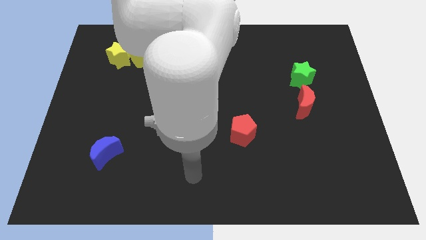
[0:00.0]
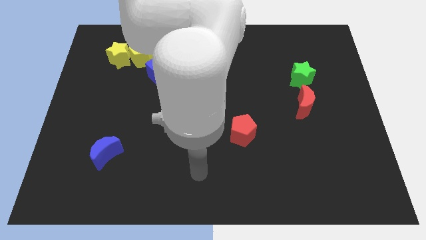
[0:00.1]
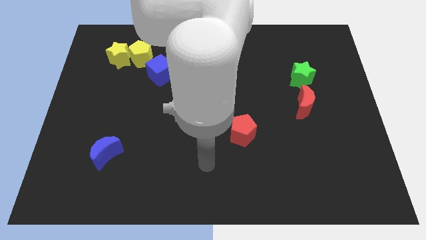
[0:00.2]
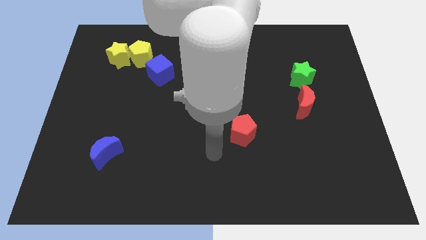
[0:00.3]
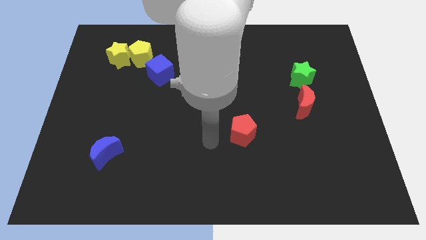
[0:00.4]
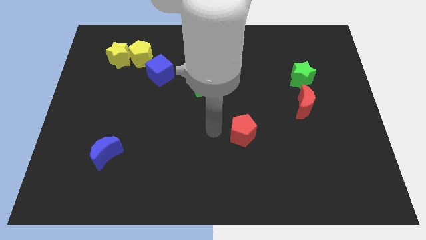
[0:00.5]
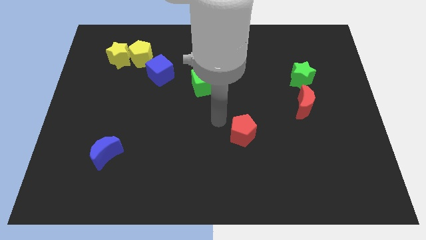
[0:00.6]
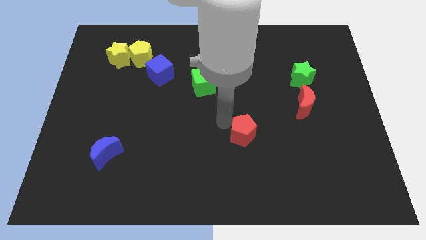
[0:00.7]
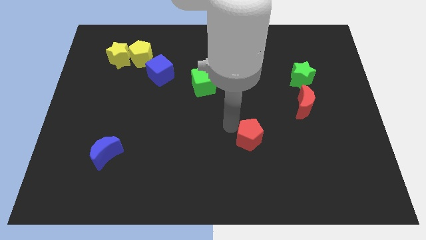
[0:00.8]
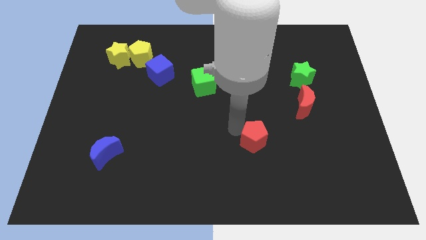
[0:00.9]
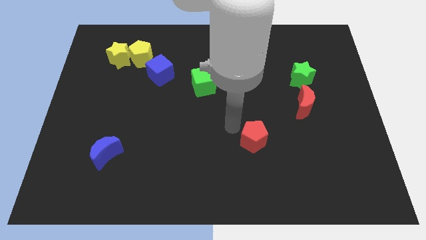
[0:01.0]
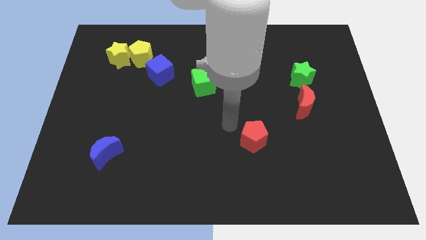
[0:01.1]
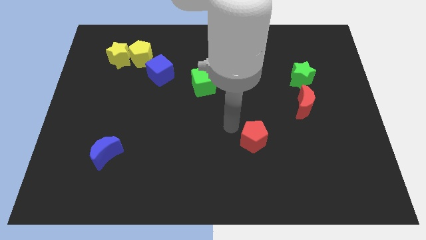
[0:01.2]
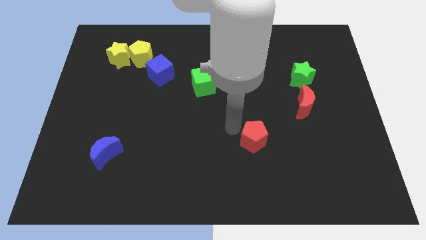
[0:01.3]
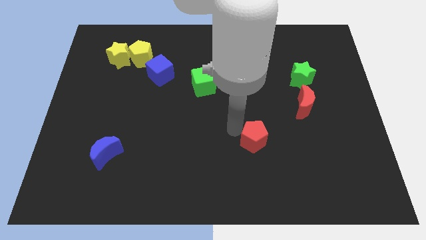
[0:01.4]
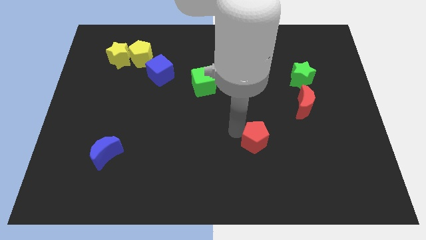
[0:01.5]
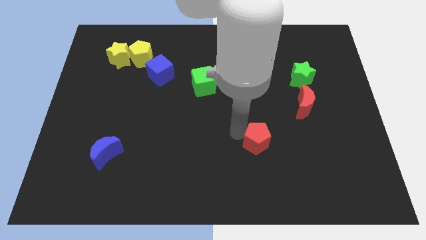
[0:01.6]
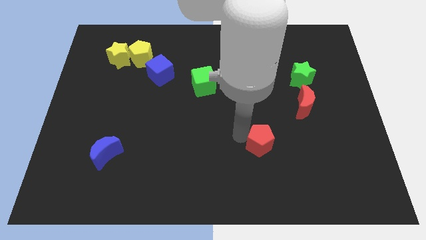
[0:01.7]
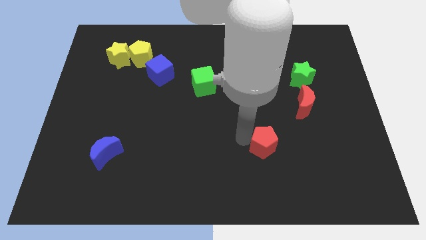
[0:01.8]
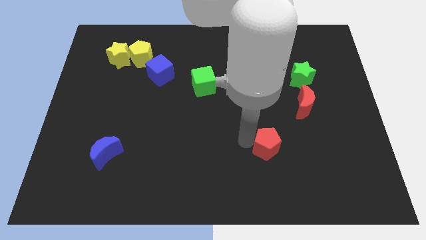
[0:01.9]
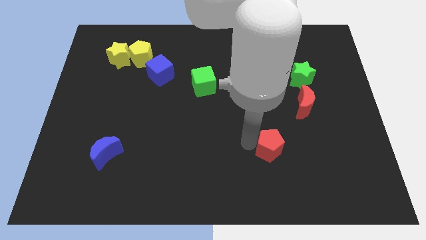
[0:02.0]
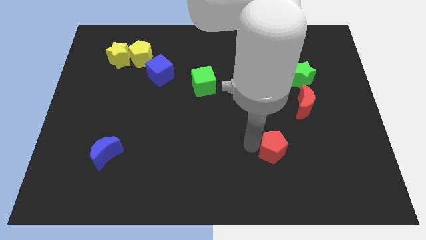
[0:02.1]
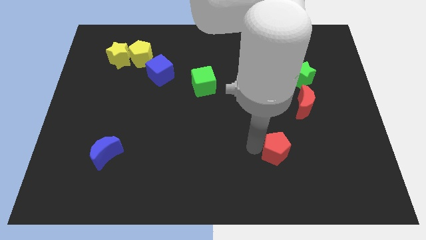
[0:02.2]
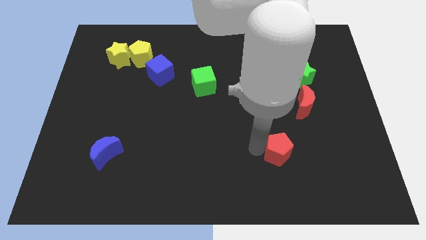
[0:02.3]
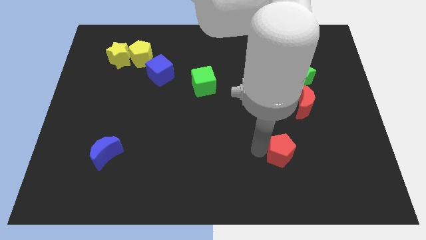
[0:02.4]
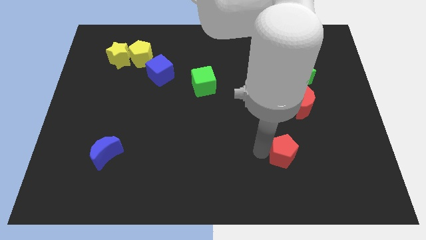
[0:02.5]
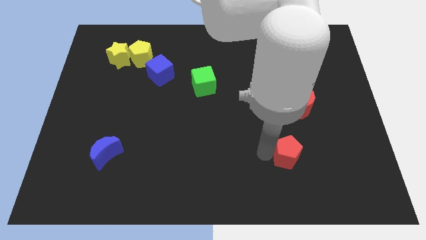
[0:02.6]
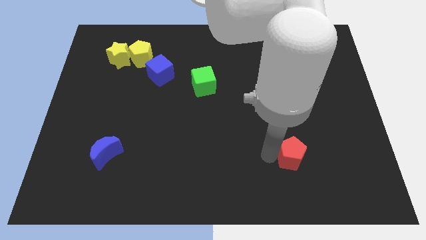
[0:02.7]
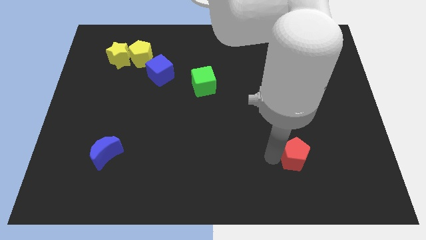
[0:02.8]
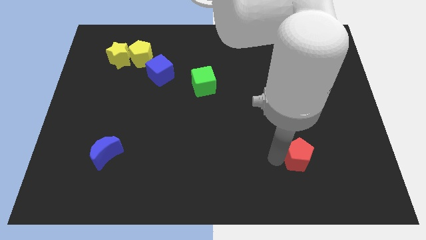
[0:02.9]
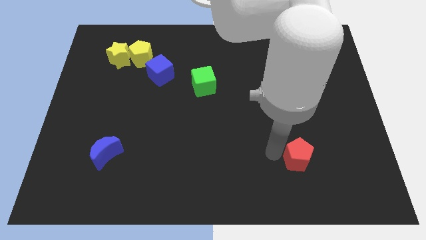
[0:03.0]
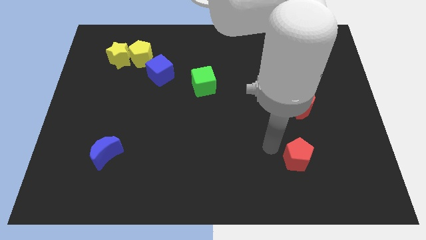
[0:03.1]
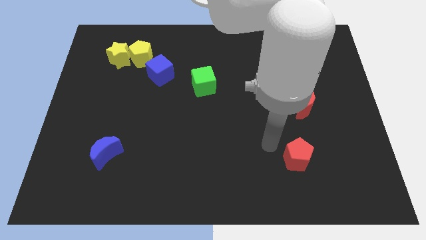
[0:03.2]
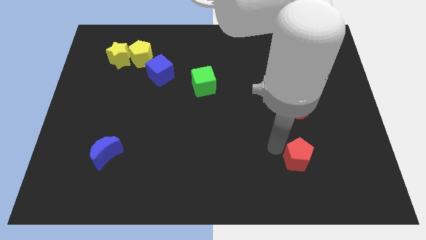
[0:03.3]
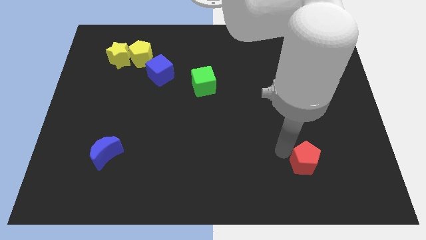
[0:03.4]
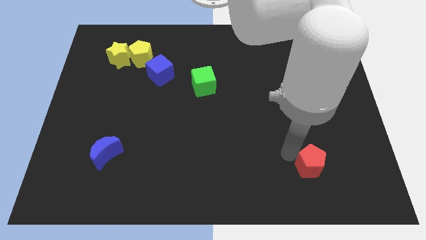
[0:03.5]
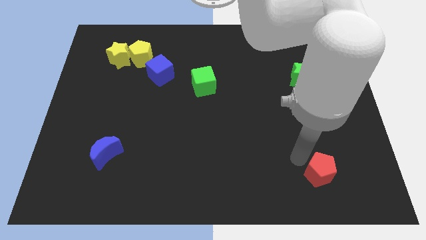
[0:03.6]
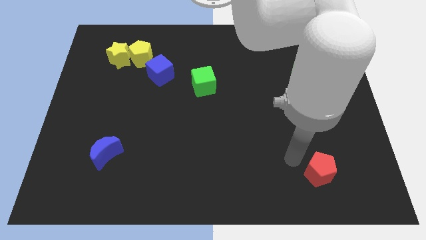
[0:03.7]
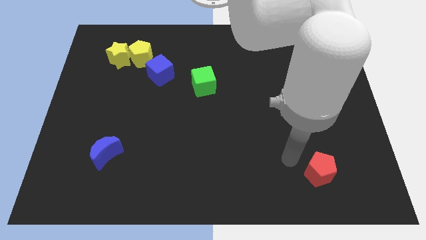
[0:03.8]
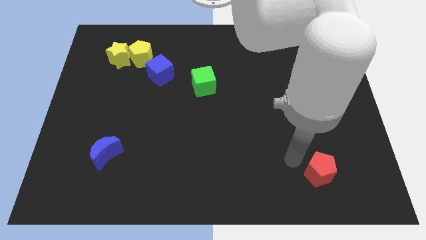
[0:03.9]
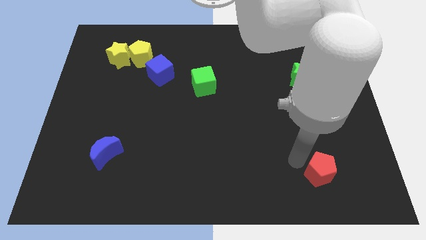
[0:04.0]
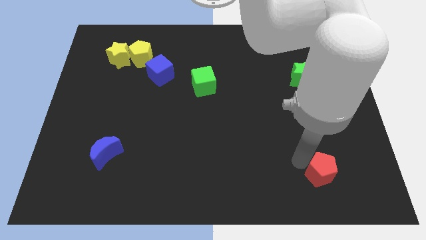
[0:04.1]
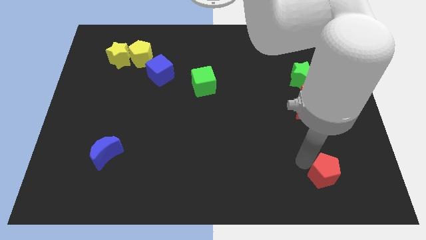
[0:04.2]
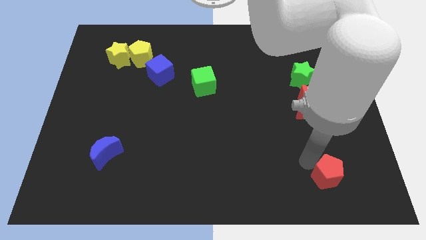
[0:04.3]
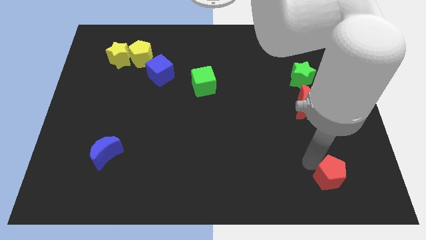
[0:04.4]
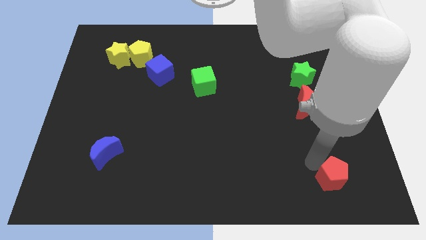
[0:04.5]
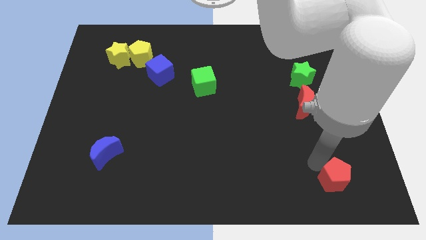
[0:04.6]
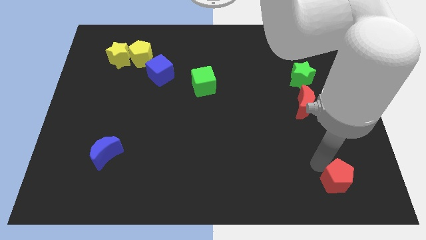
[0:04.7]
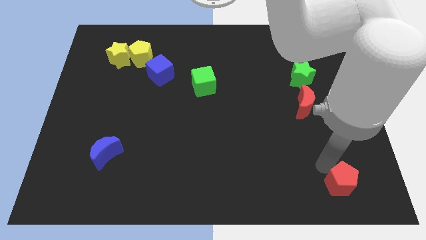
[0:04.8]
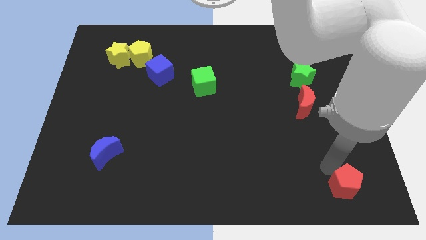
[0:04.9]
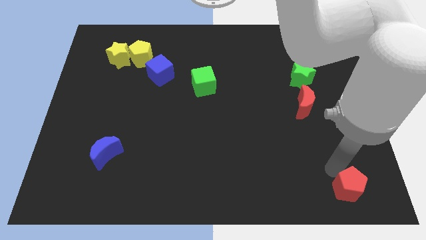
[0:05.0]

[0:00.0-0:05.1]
slide the red pentagon to the bottom right

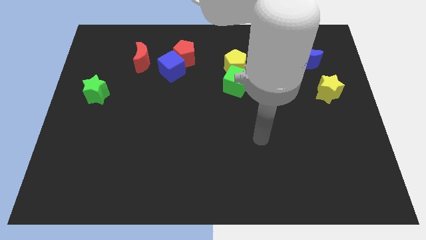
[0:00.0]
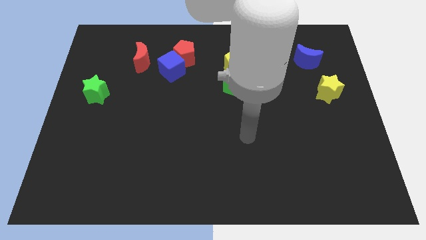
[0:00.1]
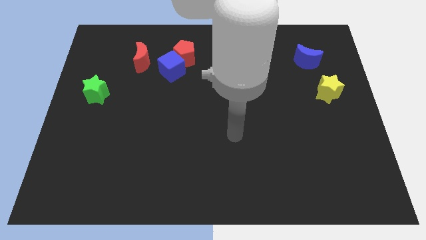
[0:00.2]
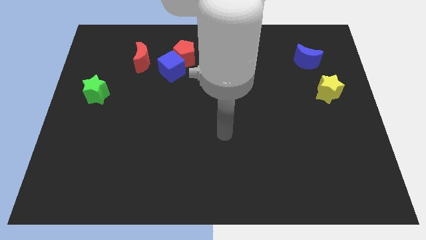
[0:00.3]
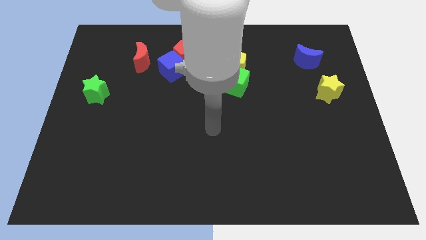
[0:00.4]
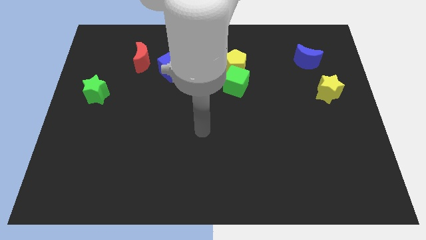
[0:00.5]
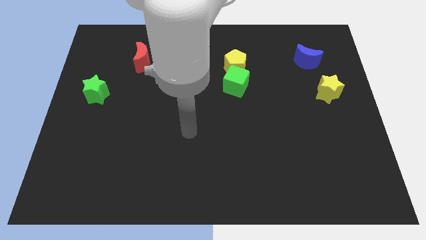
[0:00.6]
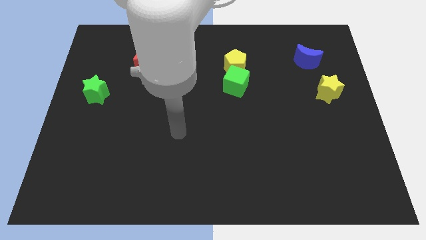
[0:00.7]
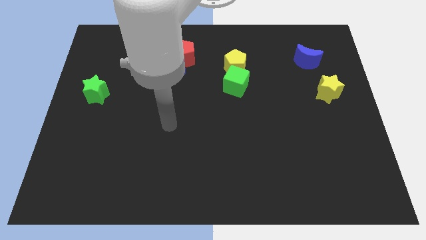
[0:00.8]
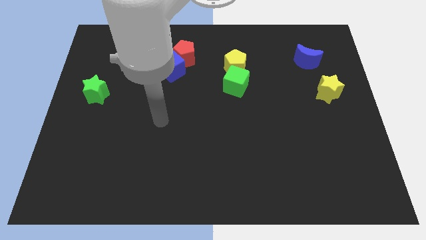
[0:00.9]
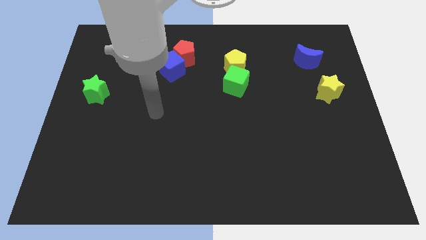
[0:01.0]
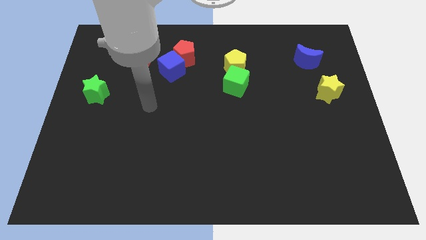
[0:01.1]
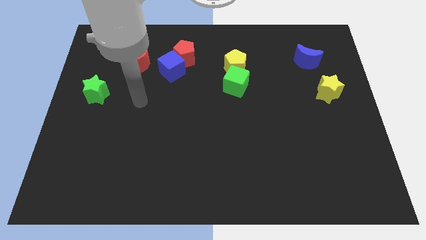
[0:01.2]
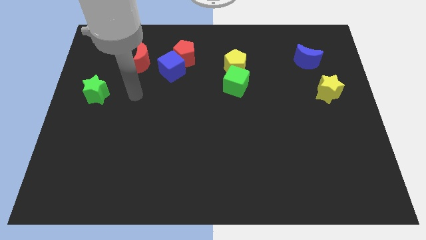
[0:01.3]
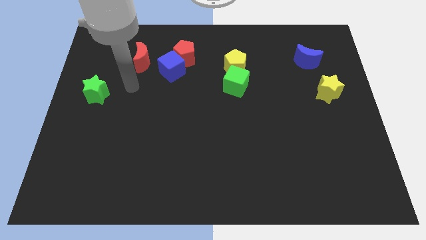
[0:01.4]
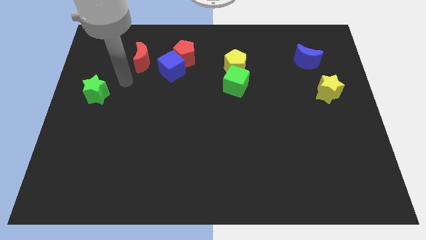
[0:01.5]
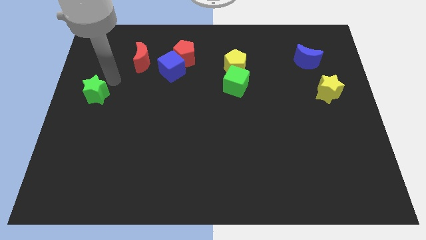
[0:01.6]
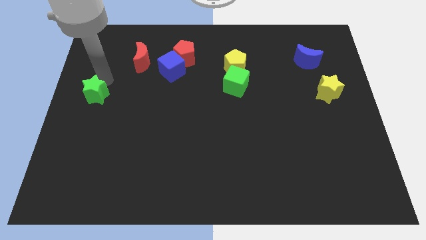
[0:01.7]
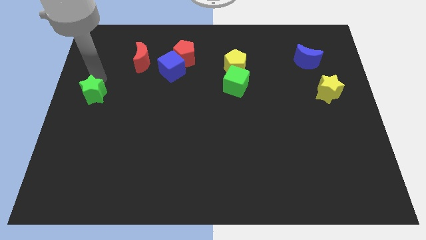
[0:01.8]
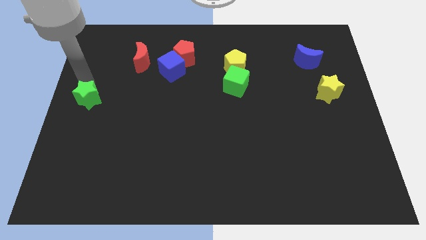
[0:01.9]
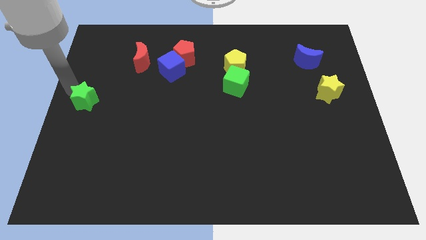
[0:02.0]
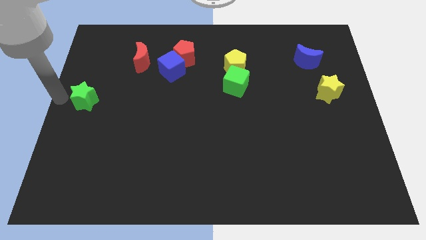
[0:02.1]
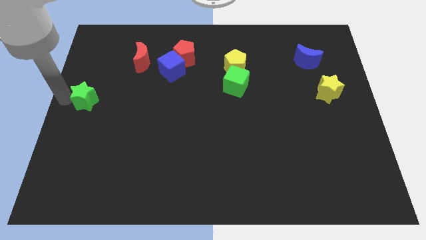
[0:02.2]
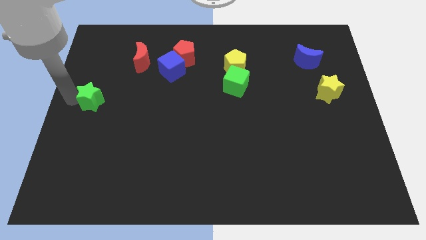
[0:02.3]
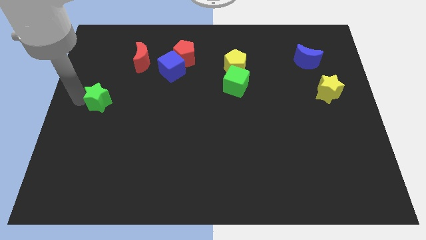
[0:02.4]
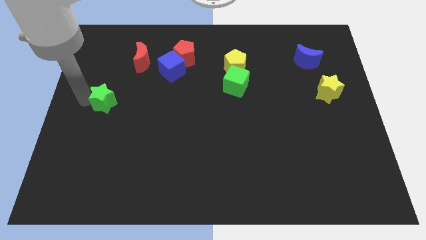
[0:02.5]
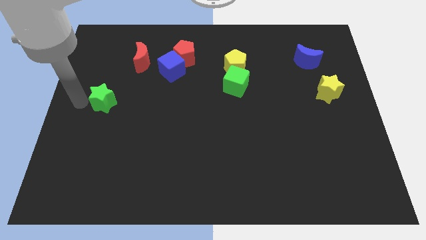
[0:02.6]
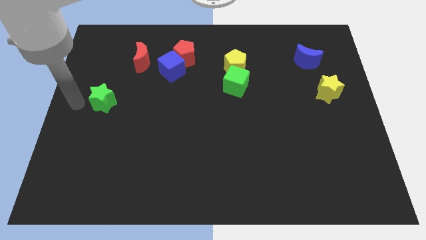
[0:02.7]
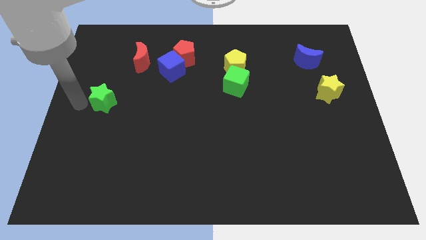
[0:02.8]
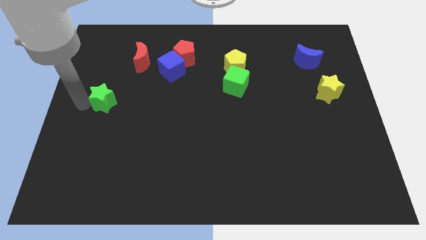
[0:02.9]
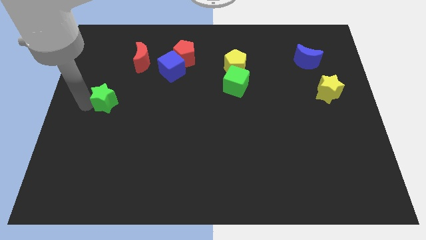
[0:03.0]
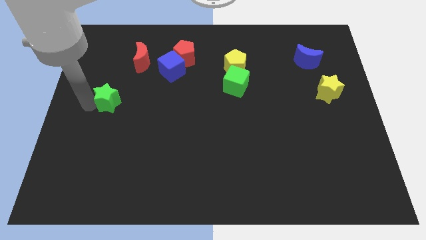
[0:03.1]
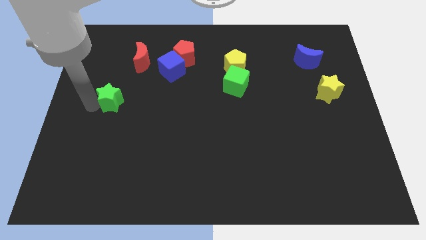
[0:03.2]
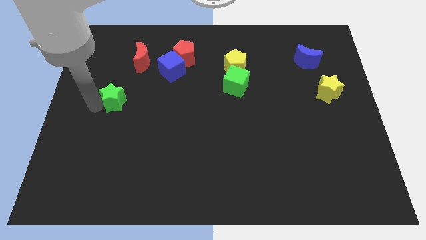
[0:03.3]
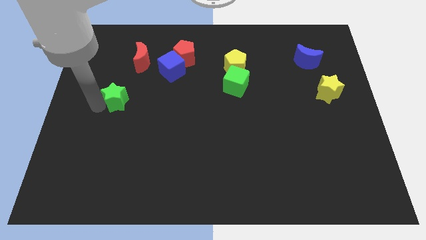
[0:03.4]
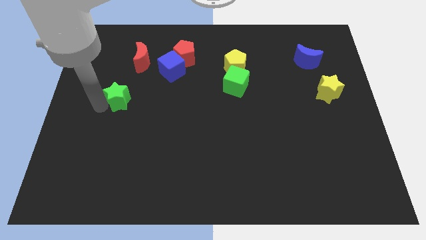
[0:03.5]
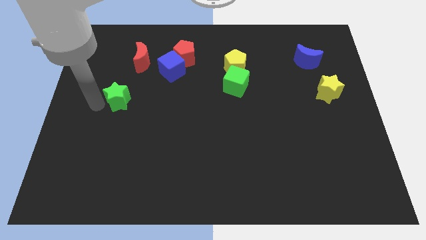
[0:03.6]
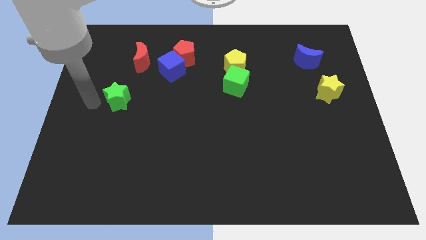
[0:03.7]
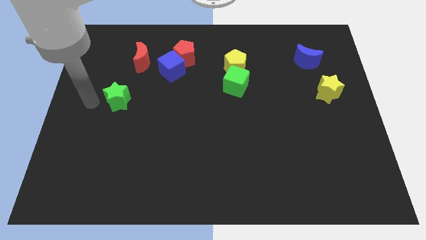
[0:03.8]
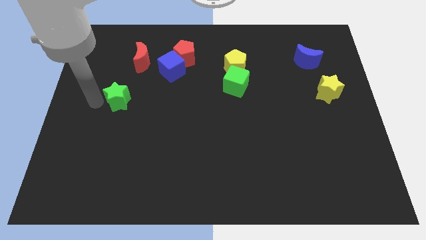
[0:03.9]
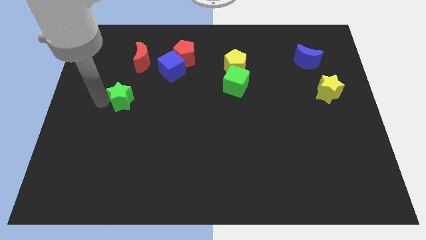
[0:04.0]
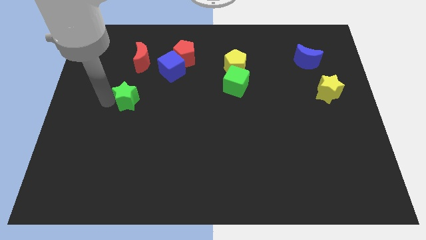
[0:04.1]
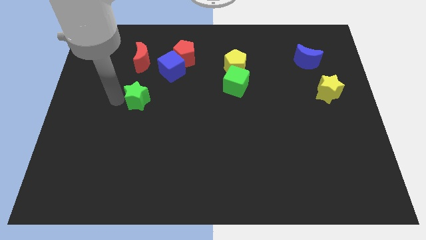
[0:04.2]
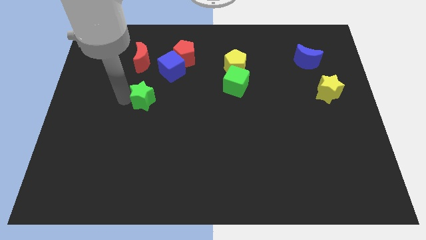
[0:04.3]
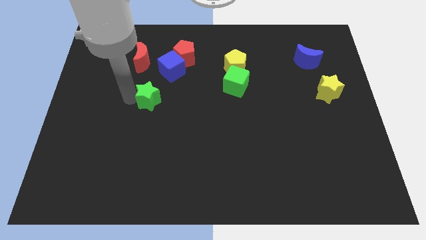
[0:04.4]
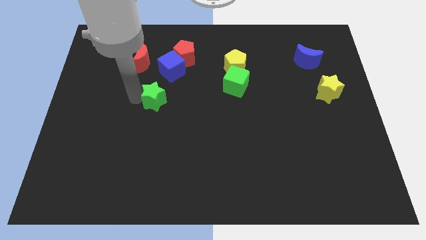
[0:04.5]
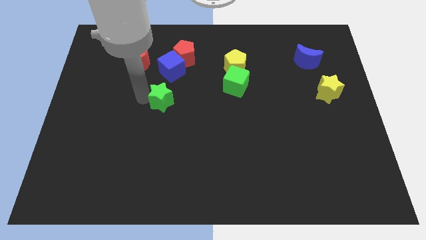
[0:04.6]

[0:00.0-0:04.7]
slide the green star to the middle
